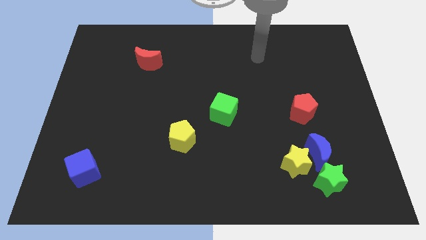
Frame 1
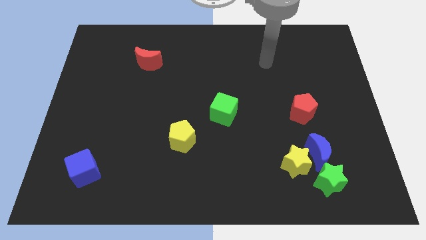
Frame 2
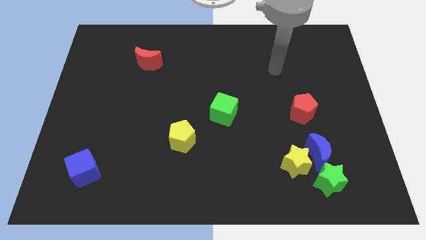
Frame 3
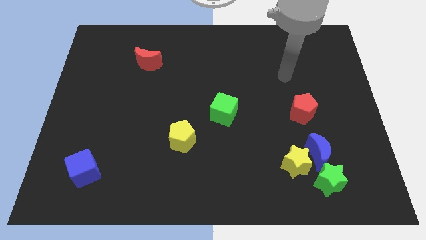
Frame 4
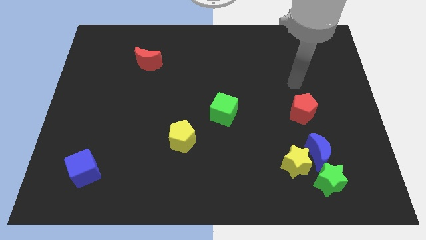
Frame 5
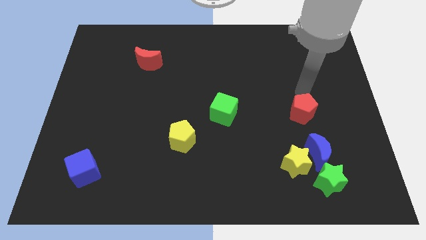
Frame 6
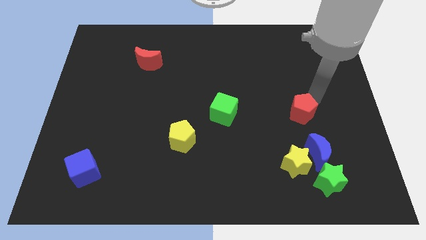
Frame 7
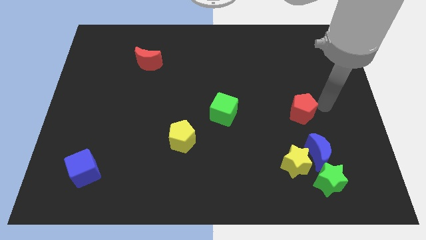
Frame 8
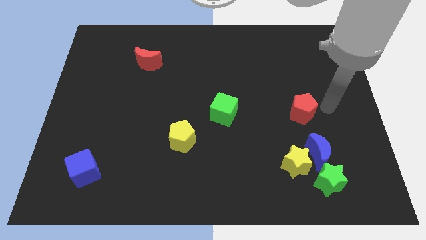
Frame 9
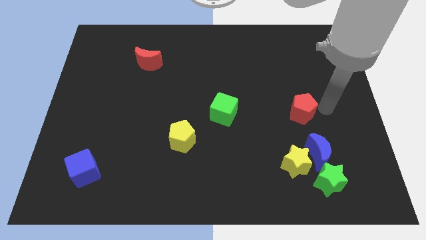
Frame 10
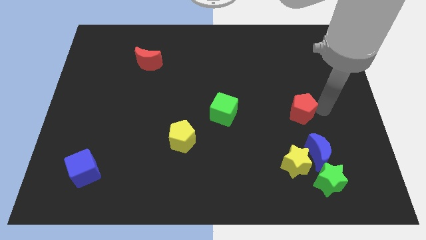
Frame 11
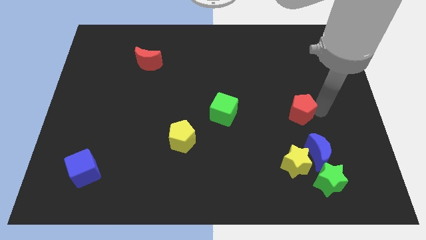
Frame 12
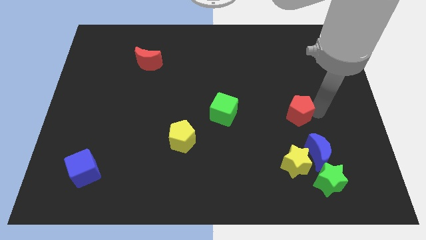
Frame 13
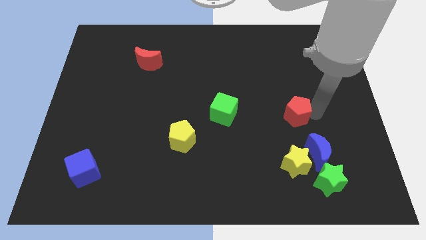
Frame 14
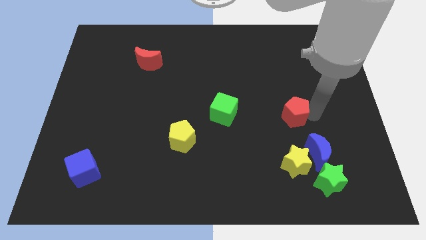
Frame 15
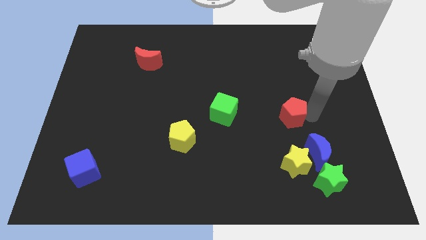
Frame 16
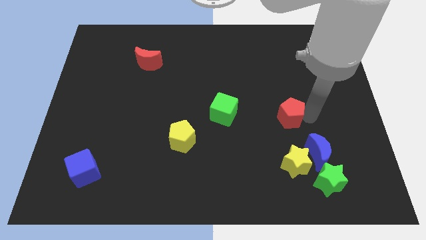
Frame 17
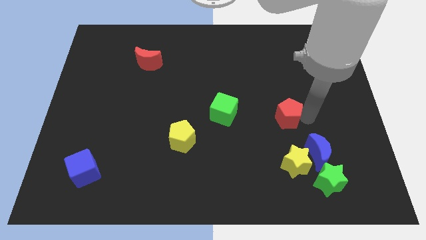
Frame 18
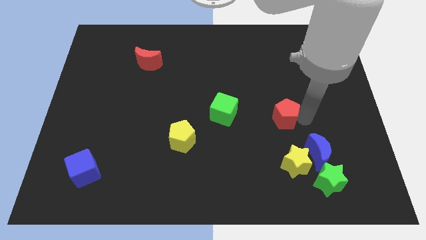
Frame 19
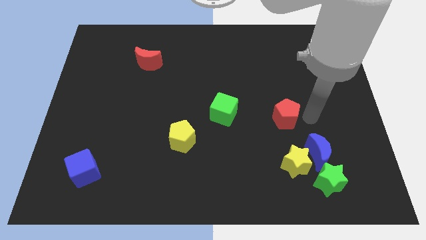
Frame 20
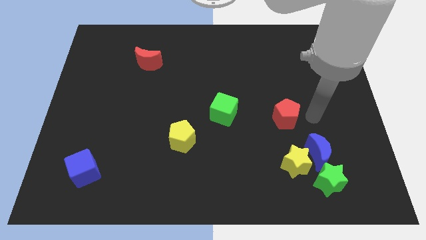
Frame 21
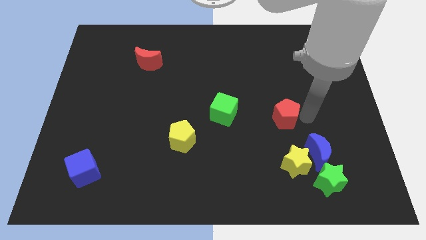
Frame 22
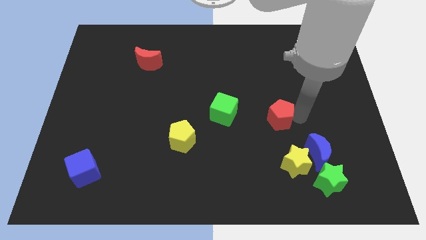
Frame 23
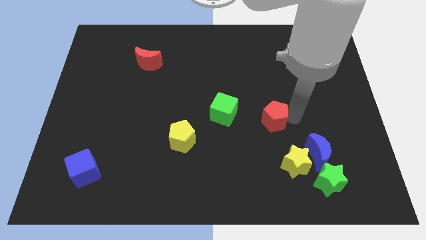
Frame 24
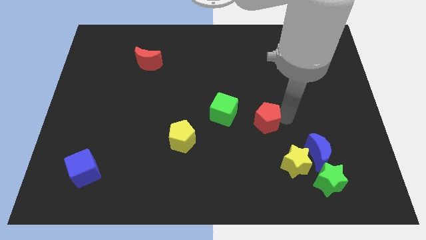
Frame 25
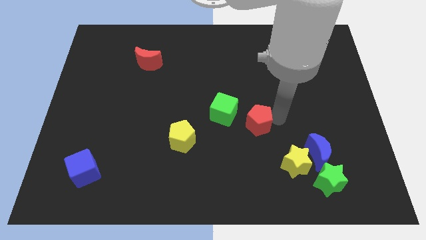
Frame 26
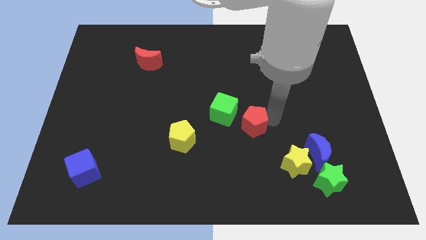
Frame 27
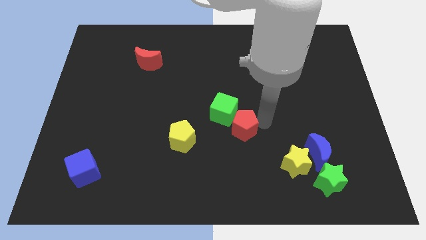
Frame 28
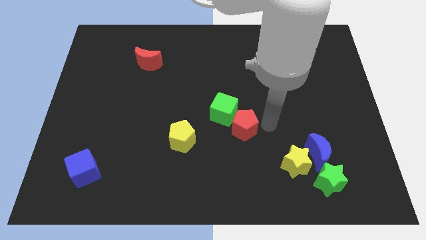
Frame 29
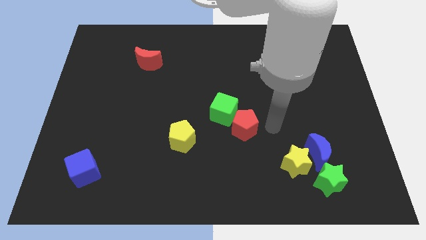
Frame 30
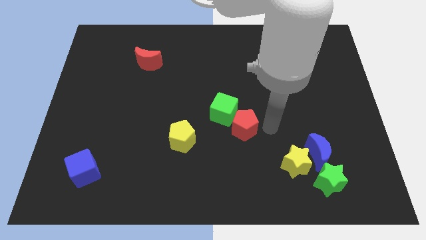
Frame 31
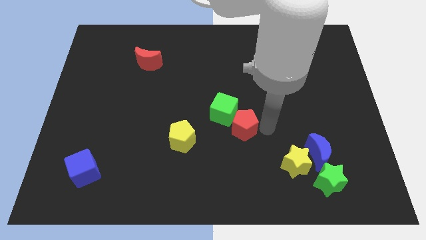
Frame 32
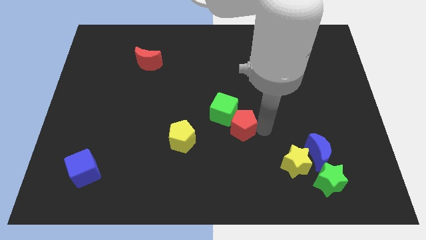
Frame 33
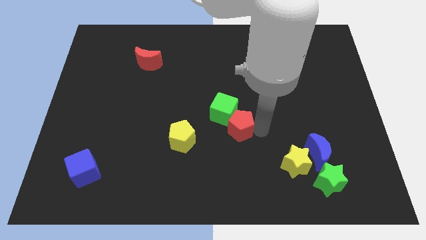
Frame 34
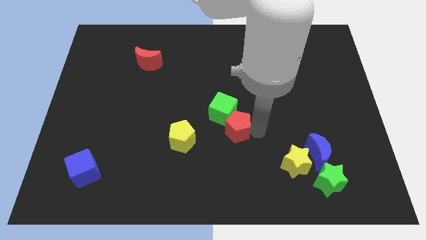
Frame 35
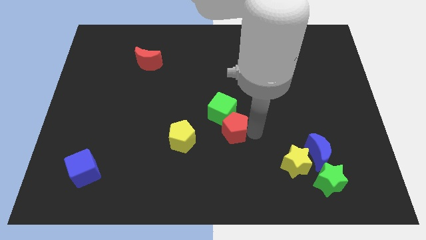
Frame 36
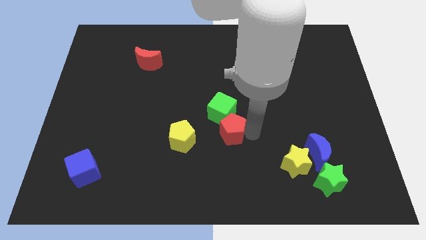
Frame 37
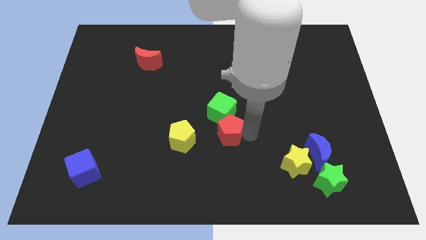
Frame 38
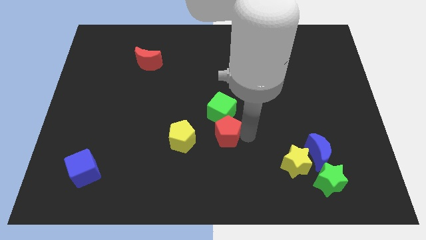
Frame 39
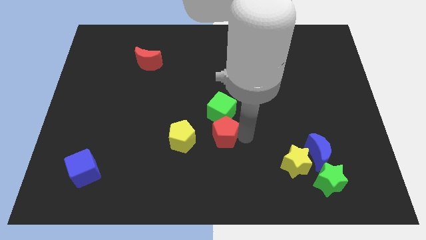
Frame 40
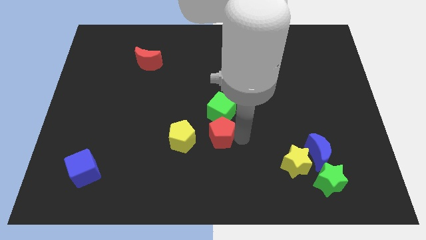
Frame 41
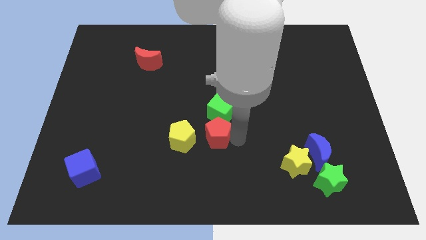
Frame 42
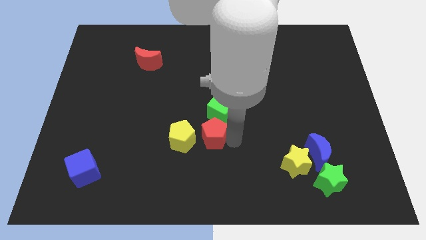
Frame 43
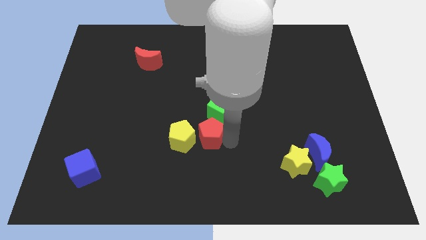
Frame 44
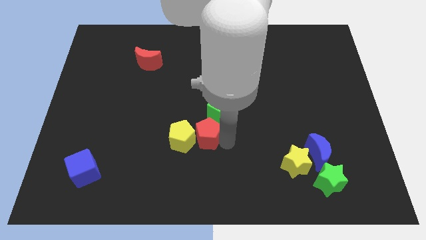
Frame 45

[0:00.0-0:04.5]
move the red pentagon to the left

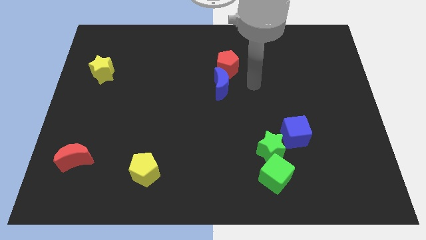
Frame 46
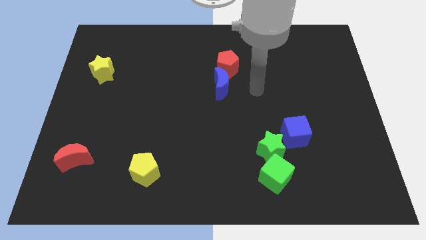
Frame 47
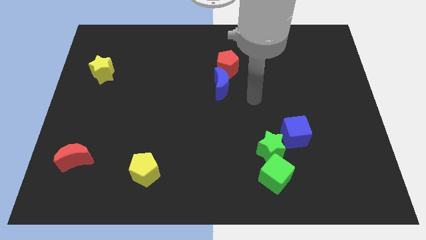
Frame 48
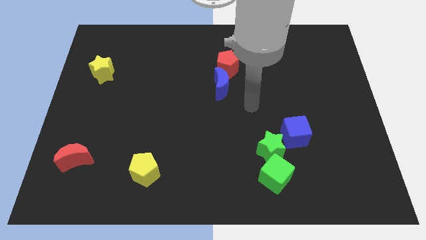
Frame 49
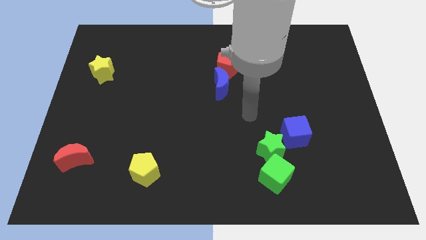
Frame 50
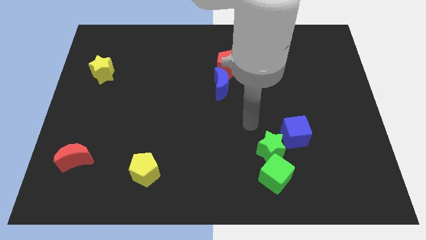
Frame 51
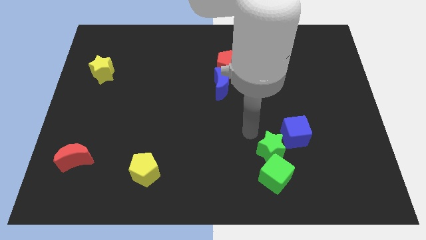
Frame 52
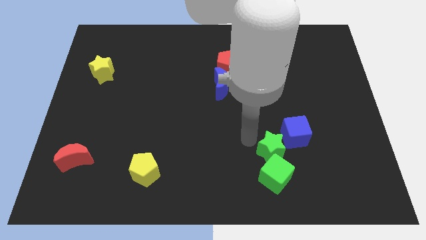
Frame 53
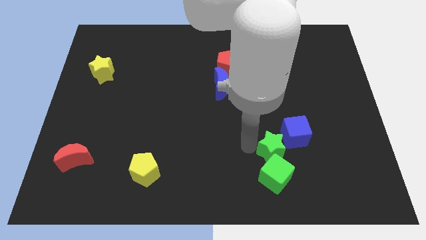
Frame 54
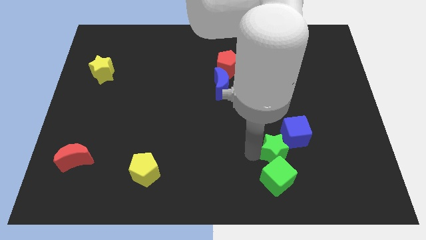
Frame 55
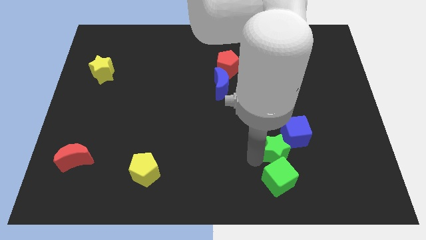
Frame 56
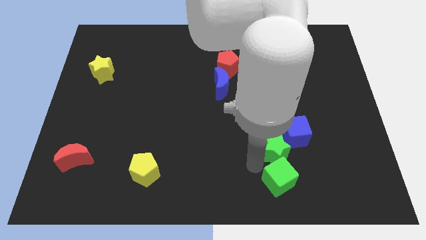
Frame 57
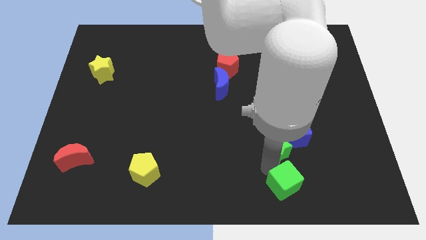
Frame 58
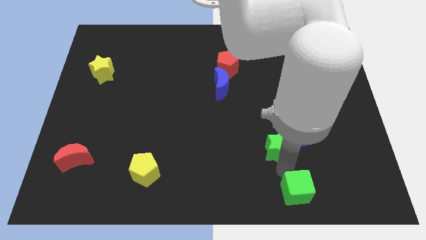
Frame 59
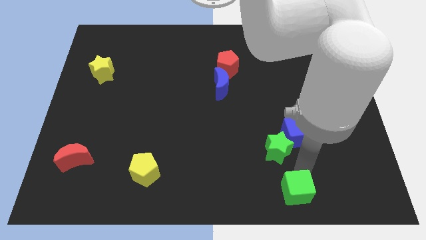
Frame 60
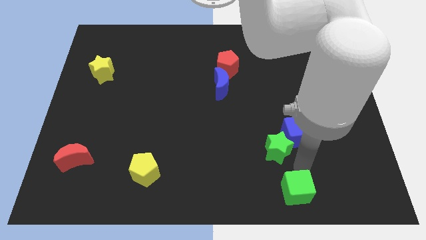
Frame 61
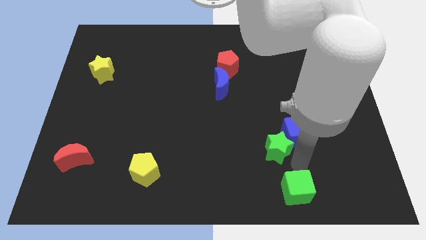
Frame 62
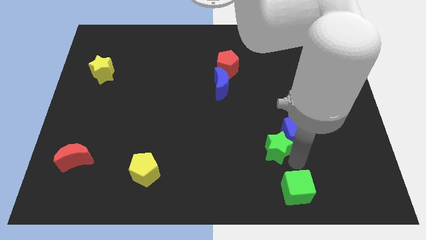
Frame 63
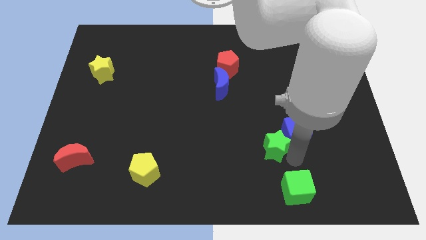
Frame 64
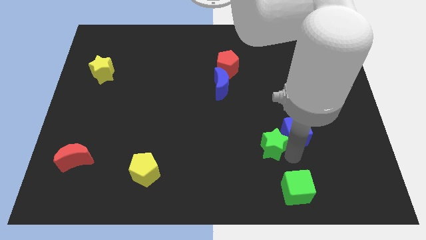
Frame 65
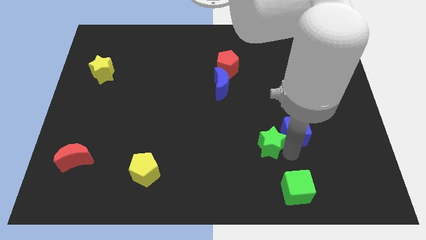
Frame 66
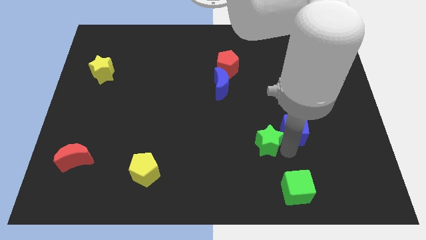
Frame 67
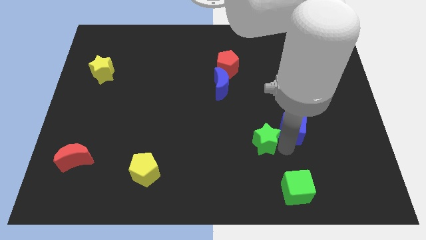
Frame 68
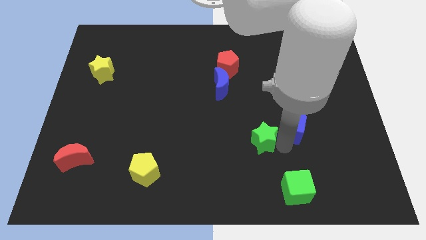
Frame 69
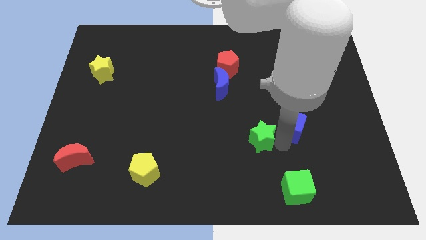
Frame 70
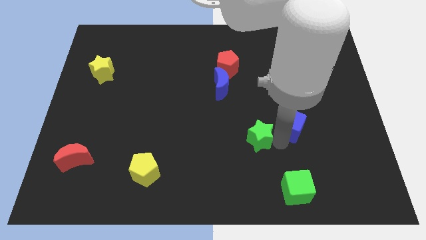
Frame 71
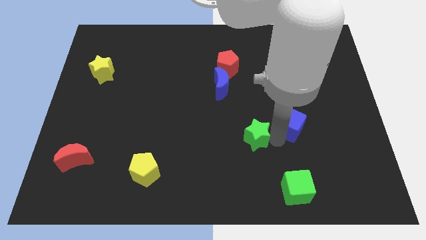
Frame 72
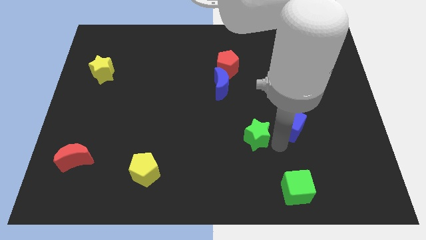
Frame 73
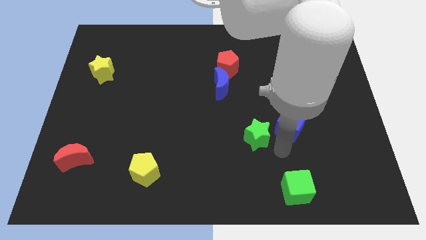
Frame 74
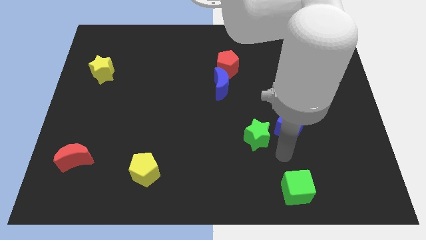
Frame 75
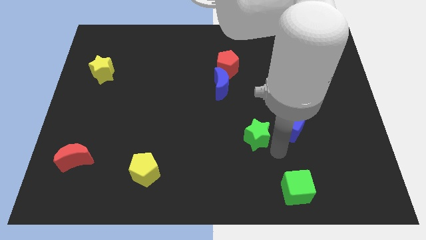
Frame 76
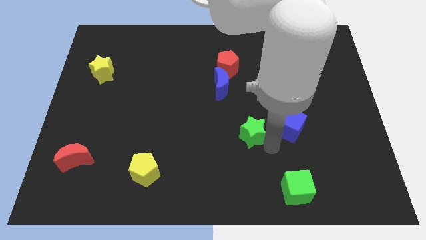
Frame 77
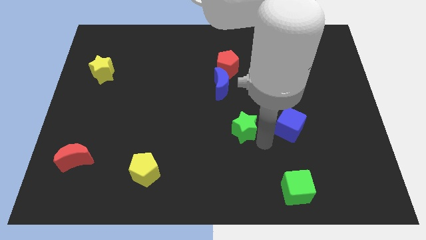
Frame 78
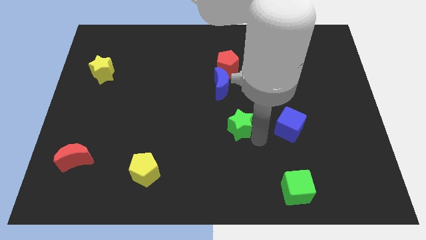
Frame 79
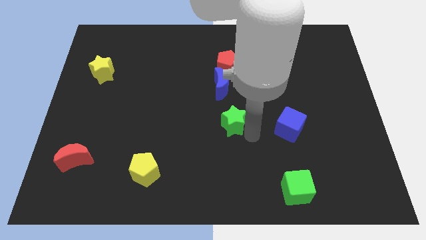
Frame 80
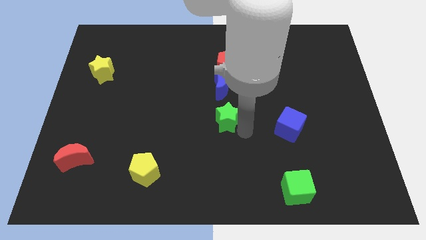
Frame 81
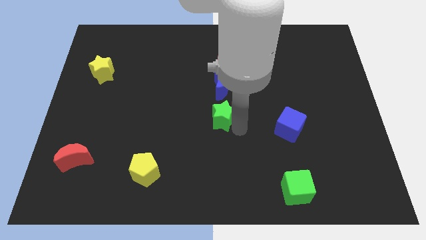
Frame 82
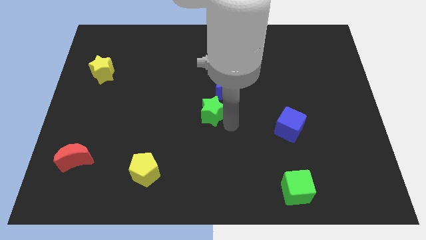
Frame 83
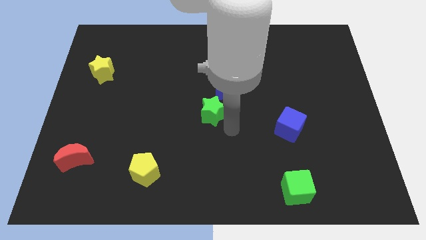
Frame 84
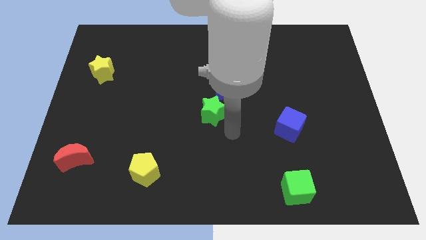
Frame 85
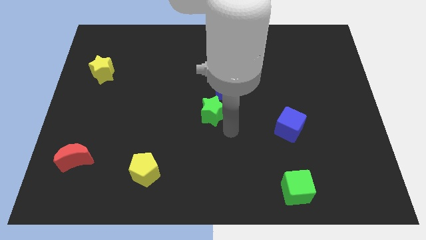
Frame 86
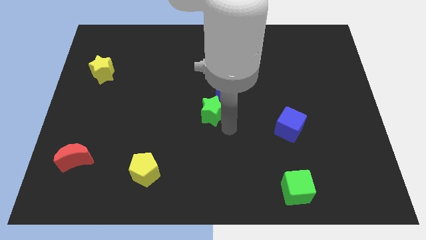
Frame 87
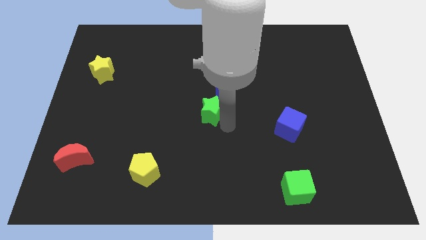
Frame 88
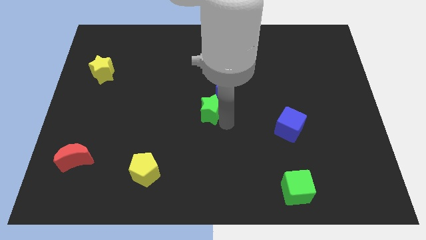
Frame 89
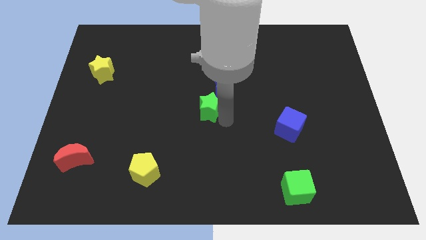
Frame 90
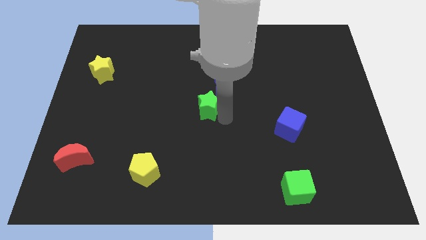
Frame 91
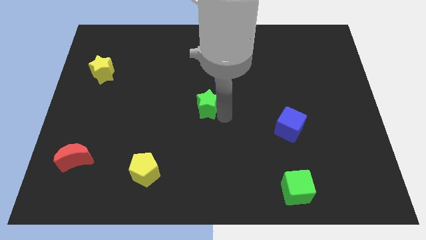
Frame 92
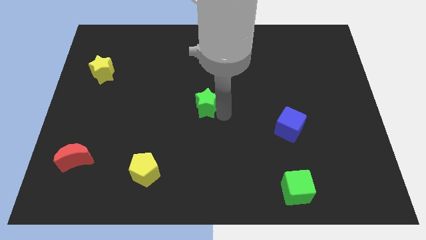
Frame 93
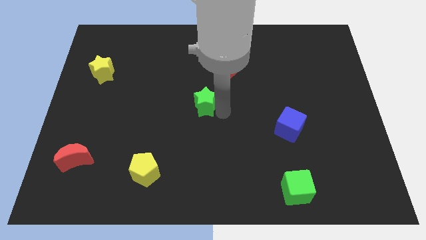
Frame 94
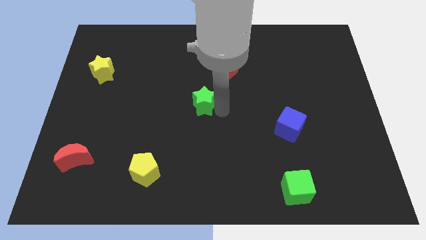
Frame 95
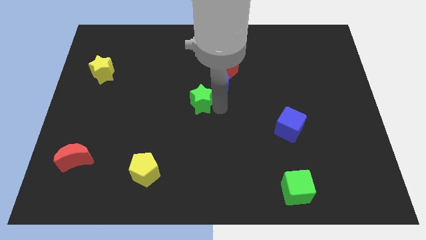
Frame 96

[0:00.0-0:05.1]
push the green star diagonally up and left
